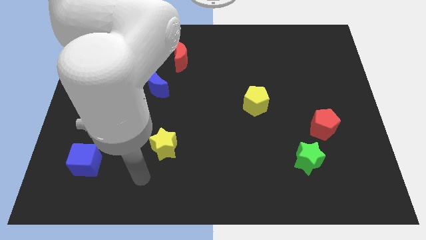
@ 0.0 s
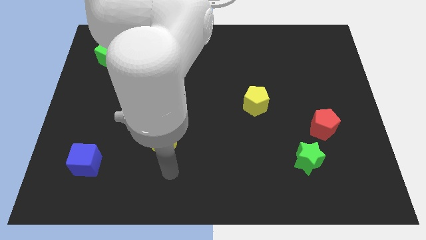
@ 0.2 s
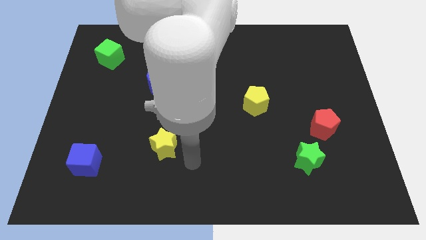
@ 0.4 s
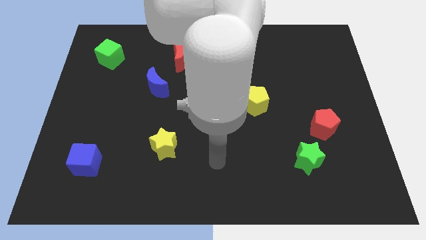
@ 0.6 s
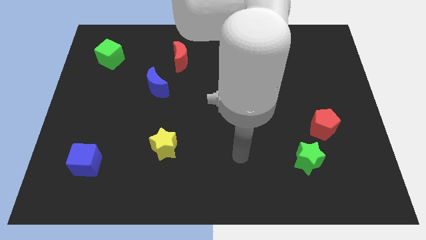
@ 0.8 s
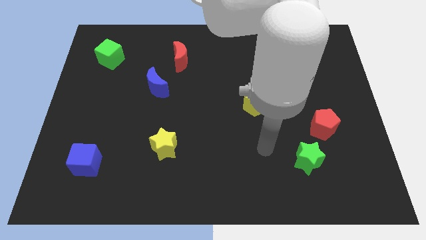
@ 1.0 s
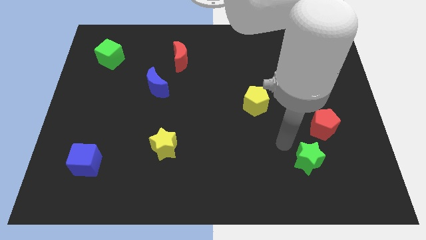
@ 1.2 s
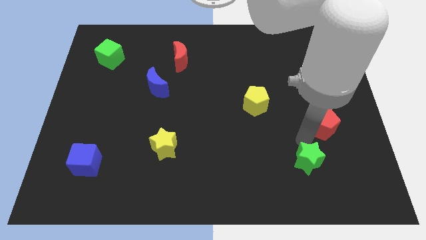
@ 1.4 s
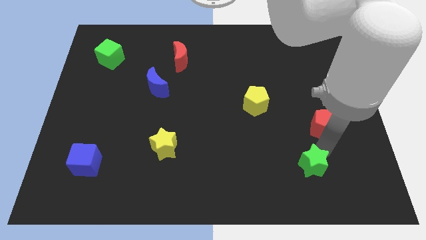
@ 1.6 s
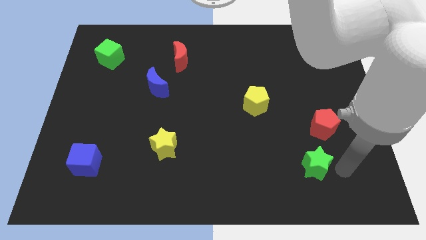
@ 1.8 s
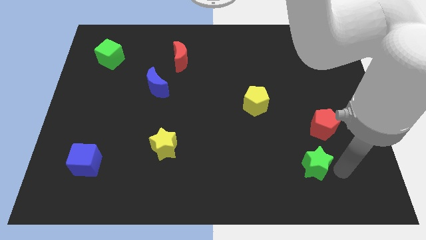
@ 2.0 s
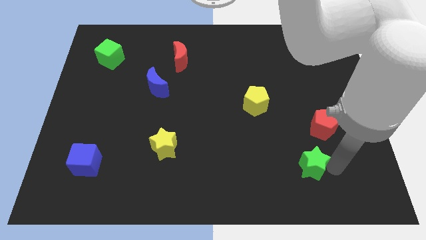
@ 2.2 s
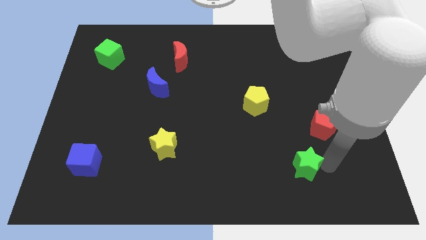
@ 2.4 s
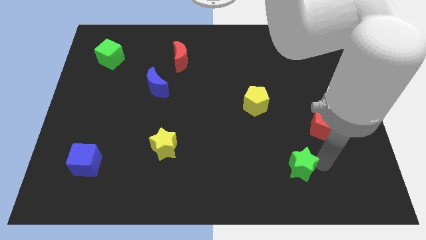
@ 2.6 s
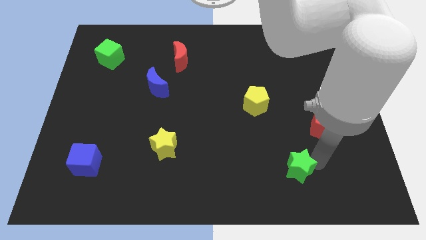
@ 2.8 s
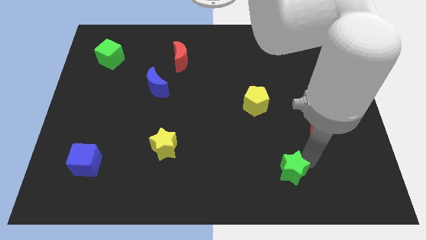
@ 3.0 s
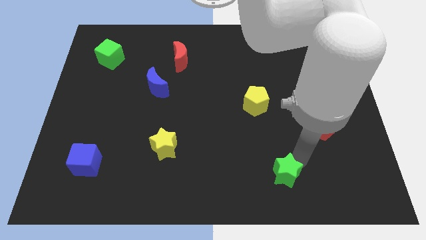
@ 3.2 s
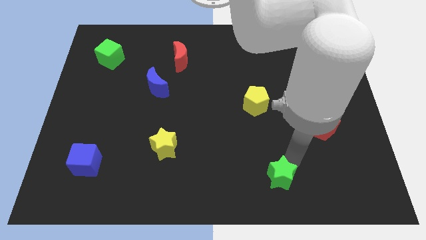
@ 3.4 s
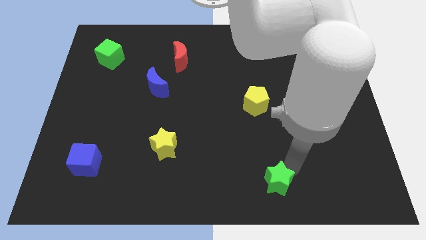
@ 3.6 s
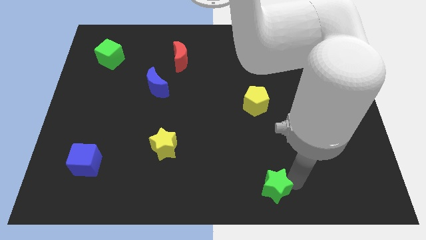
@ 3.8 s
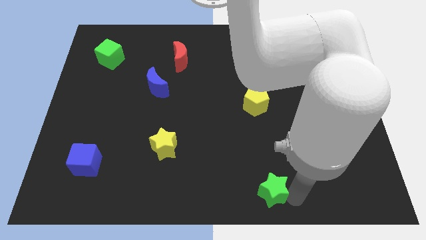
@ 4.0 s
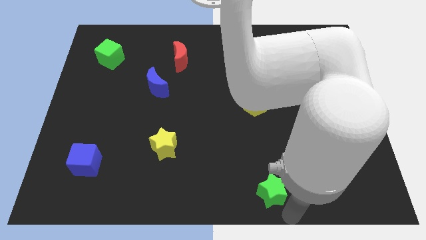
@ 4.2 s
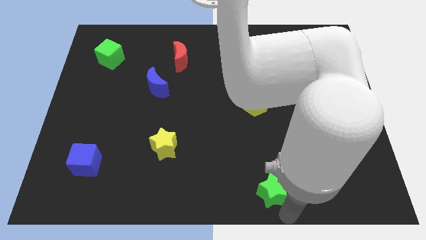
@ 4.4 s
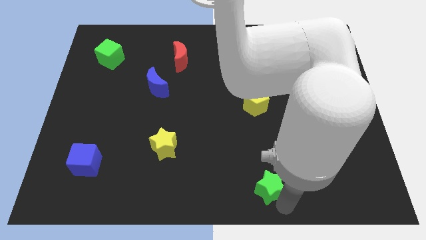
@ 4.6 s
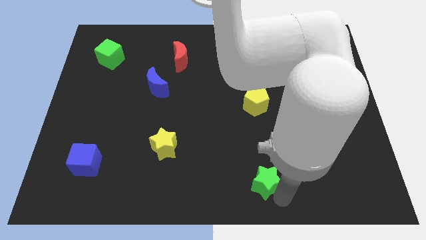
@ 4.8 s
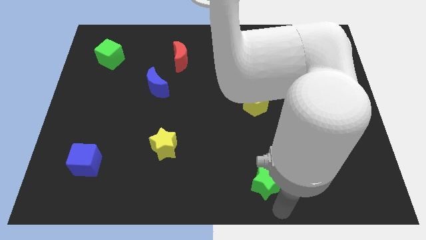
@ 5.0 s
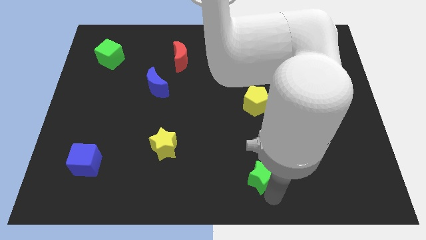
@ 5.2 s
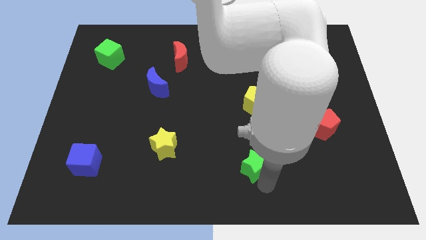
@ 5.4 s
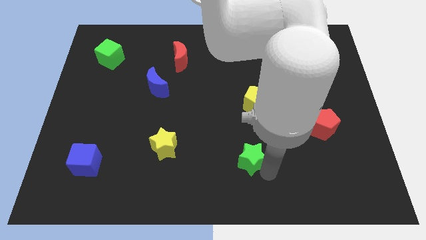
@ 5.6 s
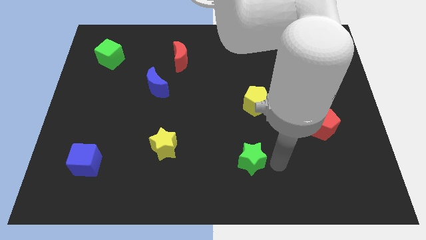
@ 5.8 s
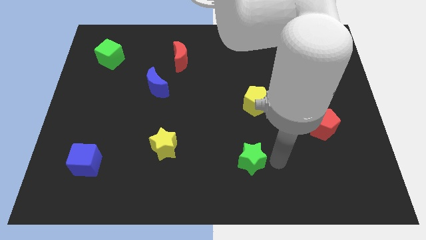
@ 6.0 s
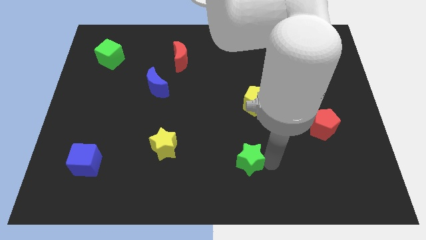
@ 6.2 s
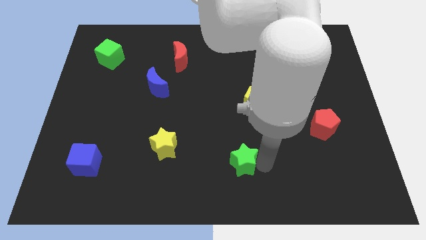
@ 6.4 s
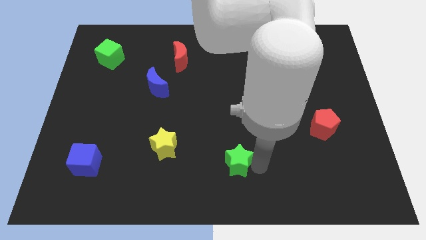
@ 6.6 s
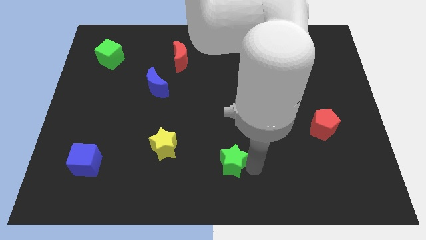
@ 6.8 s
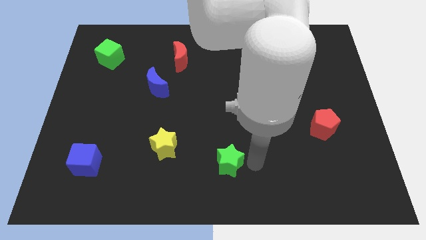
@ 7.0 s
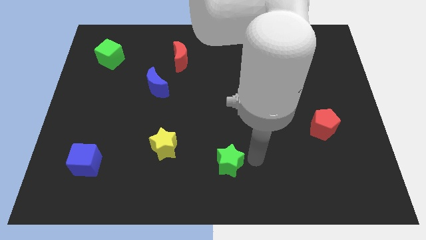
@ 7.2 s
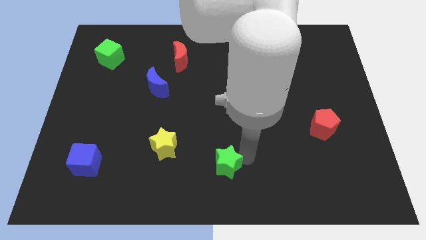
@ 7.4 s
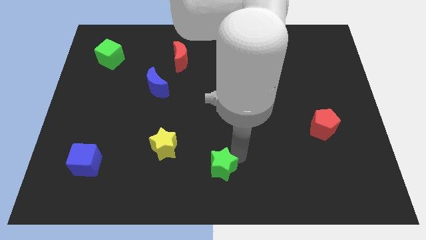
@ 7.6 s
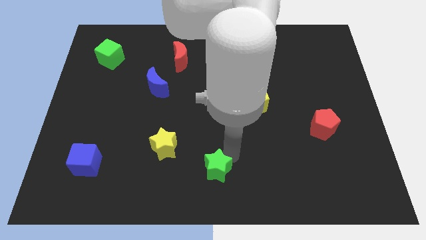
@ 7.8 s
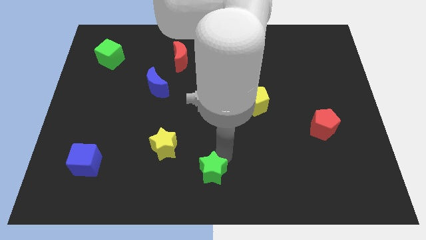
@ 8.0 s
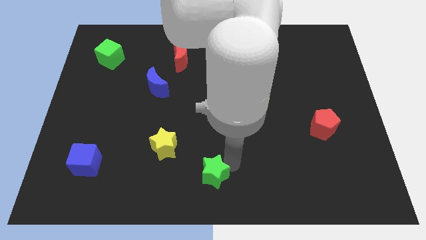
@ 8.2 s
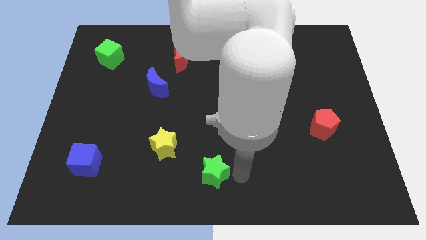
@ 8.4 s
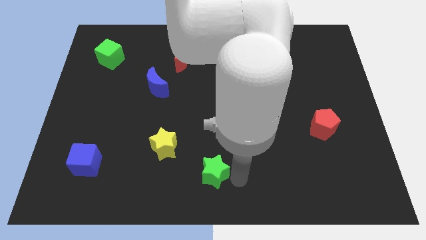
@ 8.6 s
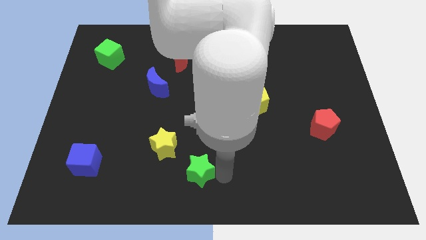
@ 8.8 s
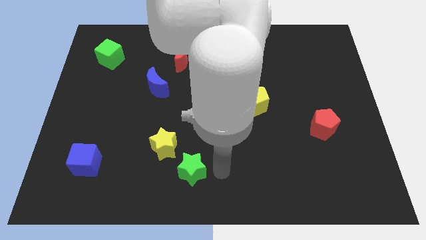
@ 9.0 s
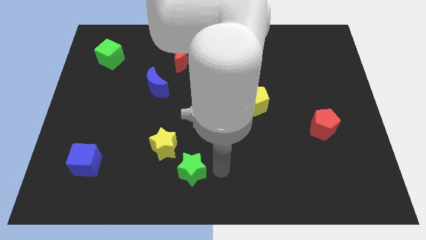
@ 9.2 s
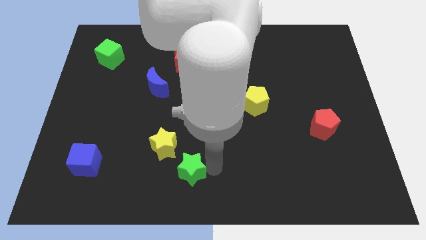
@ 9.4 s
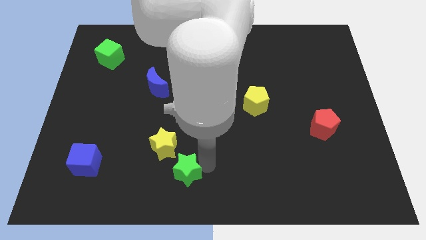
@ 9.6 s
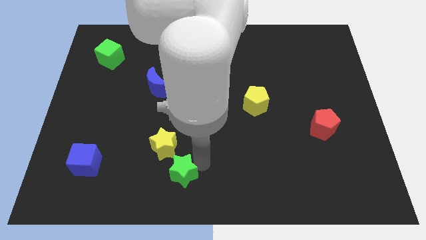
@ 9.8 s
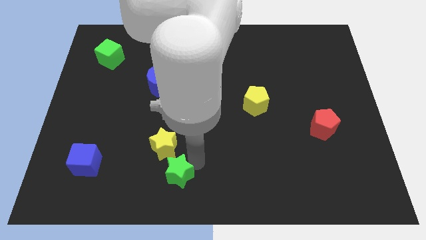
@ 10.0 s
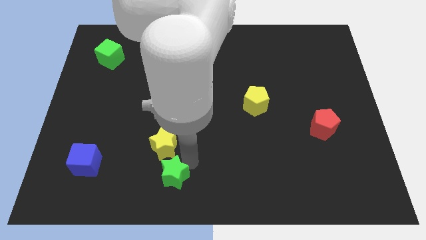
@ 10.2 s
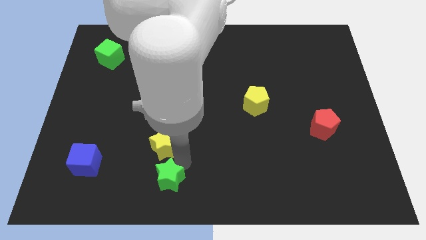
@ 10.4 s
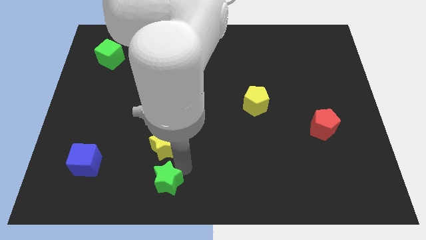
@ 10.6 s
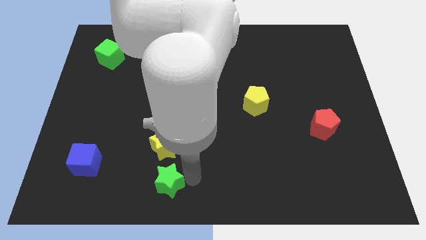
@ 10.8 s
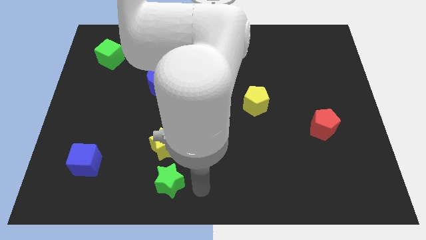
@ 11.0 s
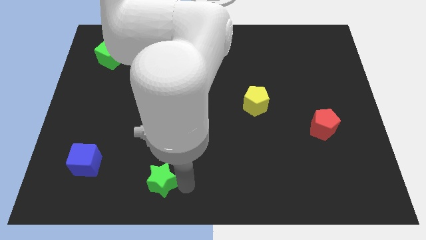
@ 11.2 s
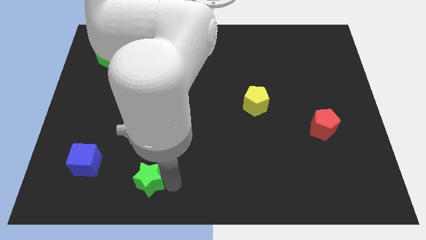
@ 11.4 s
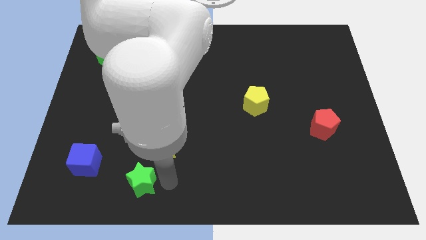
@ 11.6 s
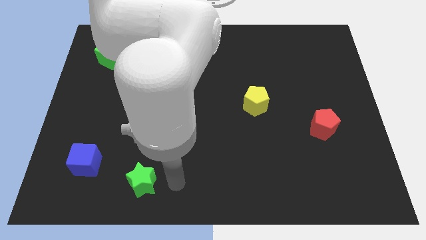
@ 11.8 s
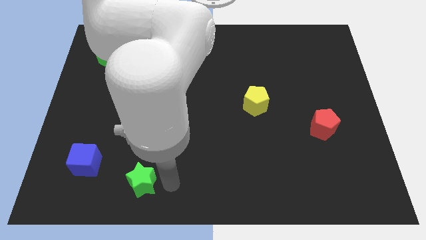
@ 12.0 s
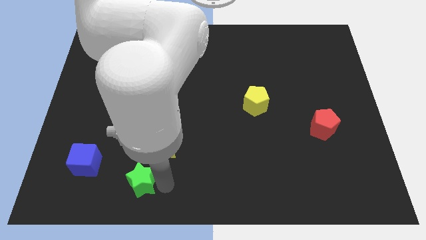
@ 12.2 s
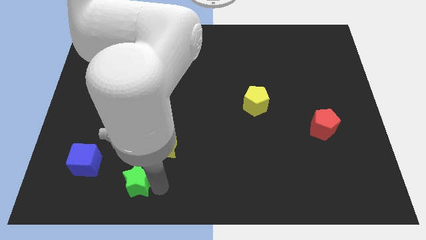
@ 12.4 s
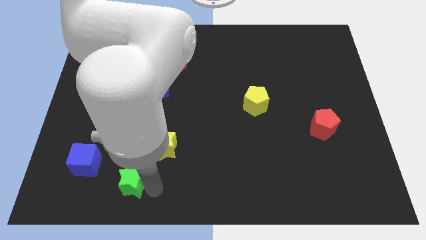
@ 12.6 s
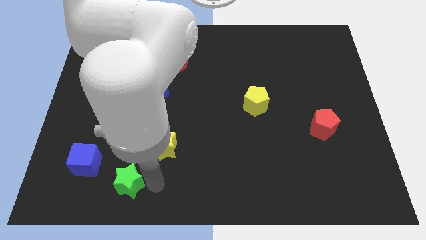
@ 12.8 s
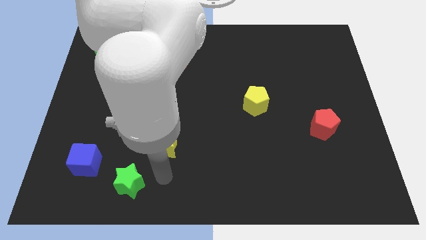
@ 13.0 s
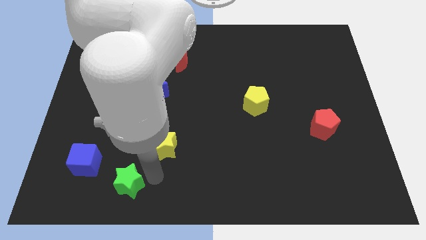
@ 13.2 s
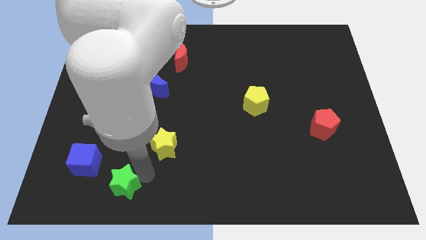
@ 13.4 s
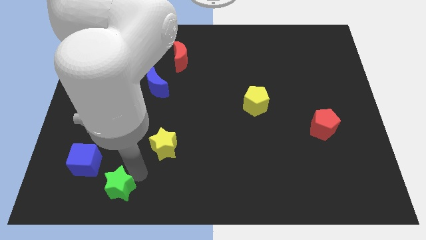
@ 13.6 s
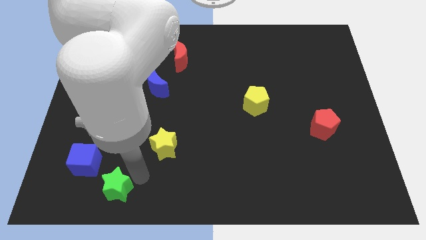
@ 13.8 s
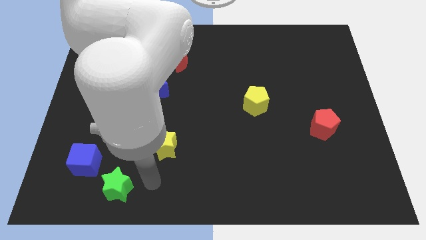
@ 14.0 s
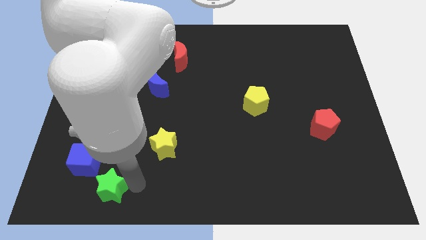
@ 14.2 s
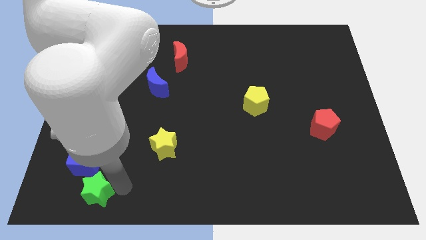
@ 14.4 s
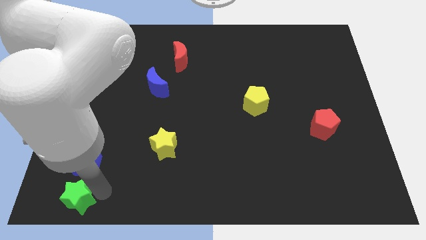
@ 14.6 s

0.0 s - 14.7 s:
push the green star to the bottom left of the board
